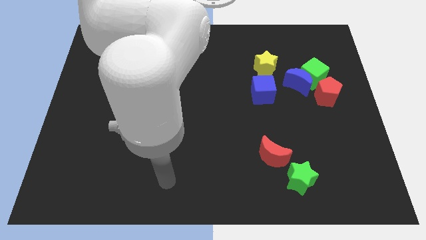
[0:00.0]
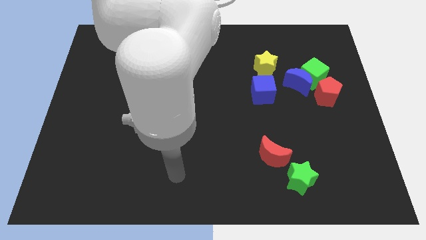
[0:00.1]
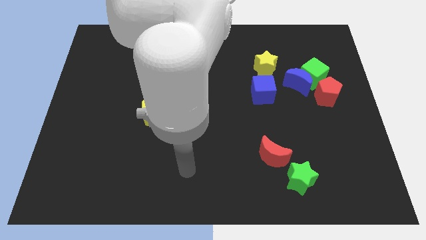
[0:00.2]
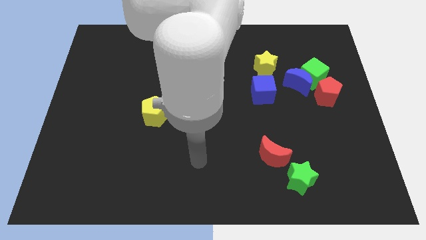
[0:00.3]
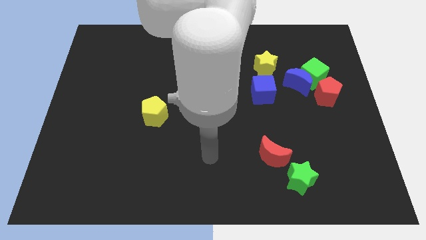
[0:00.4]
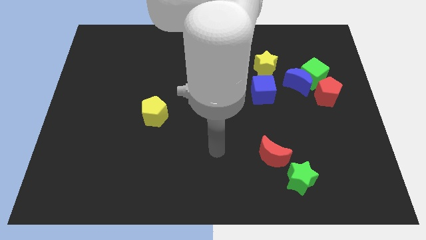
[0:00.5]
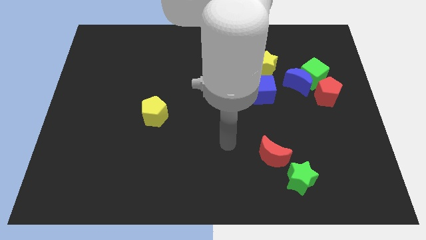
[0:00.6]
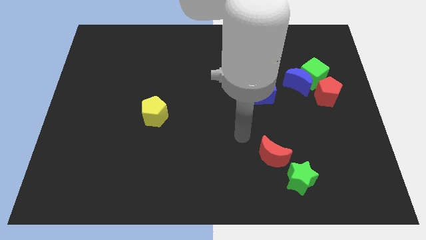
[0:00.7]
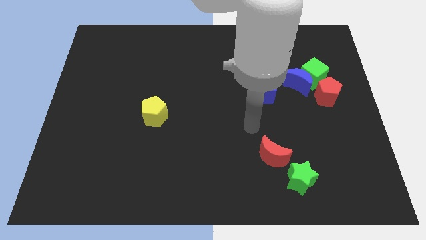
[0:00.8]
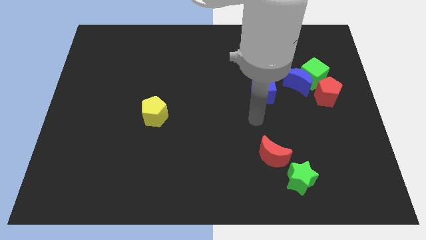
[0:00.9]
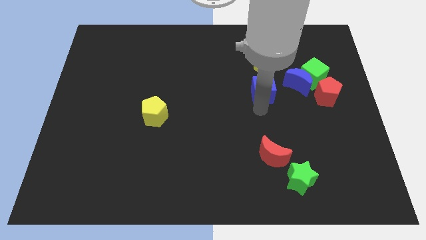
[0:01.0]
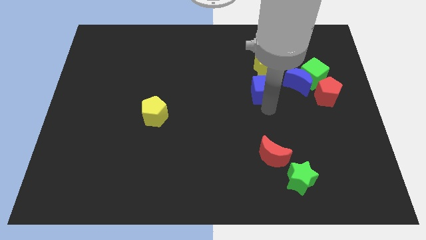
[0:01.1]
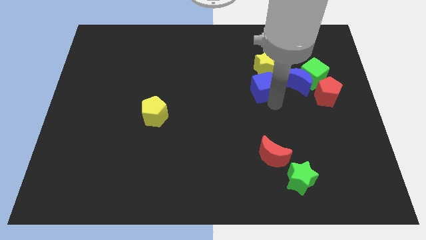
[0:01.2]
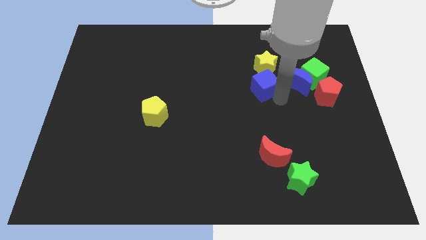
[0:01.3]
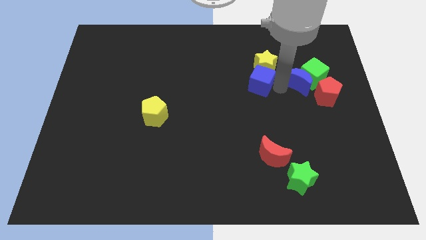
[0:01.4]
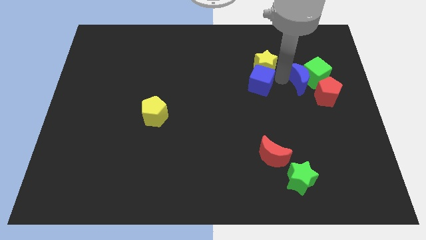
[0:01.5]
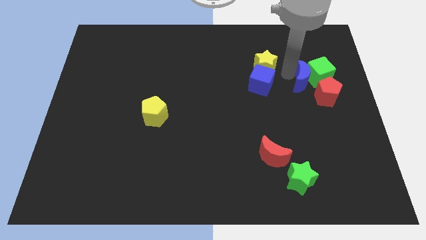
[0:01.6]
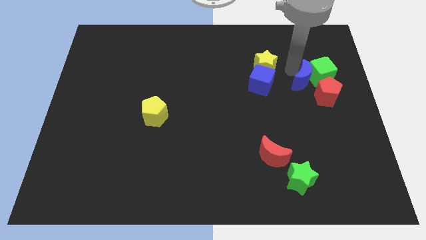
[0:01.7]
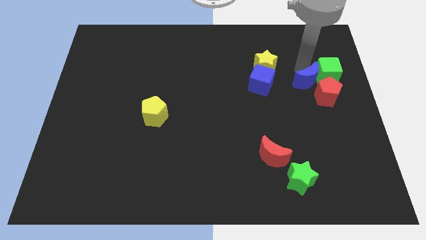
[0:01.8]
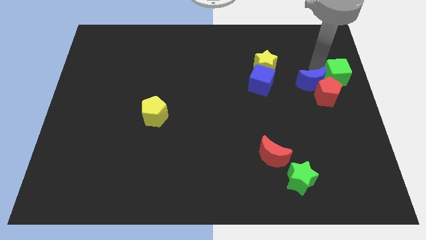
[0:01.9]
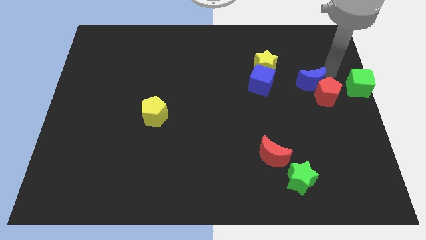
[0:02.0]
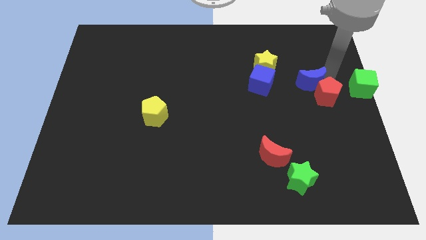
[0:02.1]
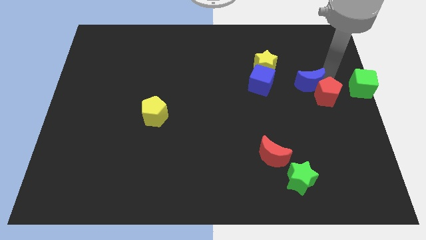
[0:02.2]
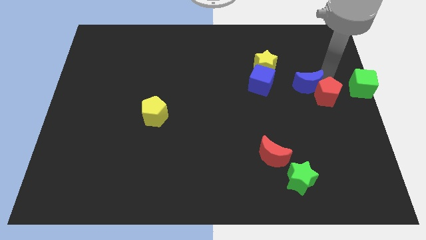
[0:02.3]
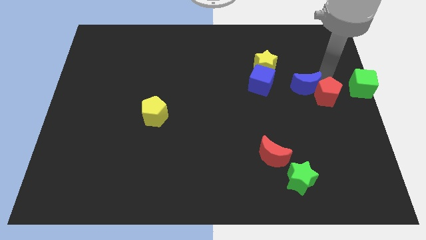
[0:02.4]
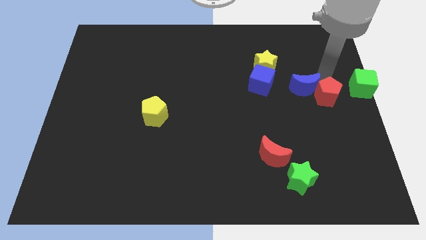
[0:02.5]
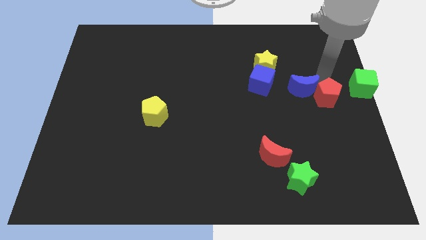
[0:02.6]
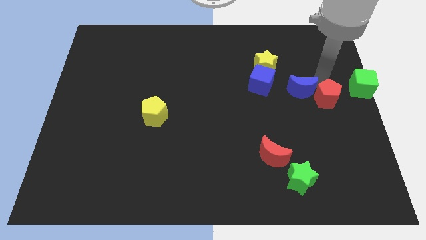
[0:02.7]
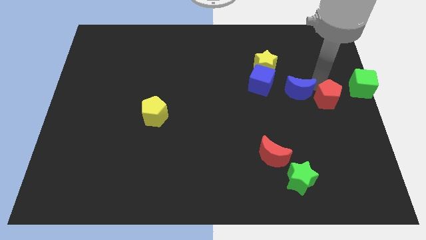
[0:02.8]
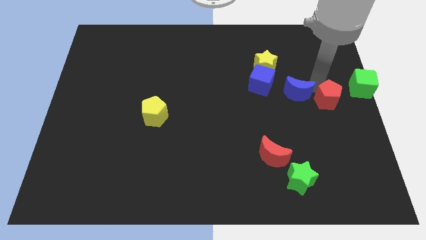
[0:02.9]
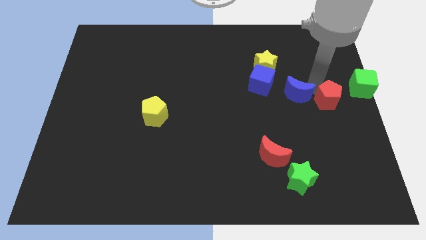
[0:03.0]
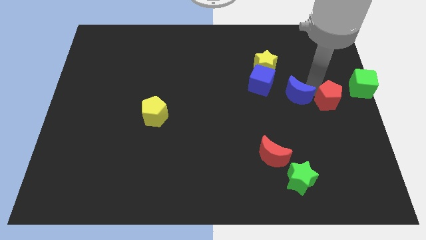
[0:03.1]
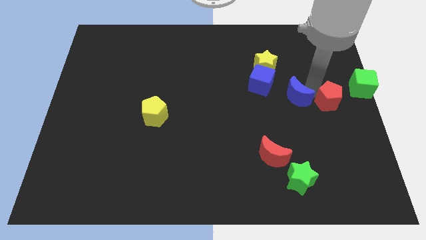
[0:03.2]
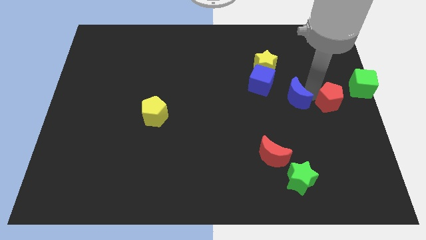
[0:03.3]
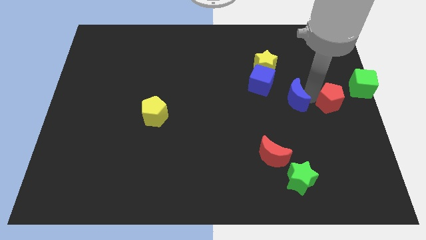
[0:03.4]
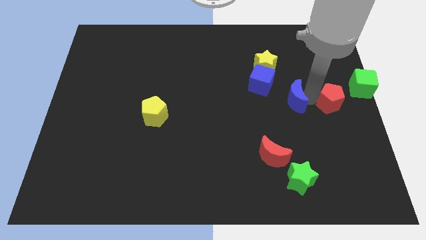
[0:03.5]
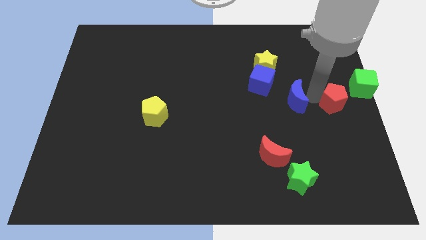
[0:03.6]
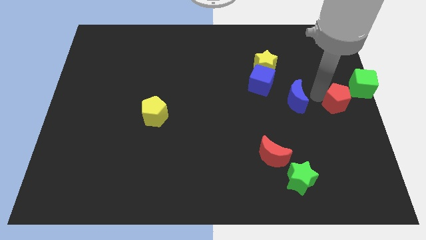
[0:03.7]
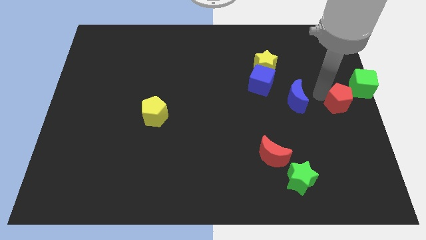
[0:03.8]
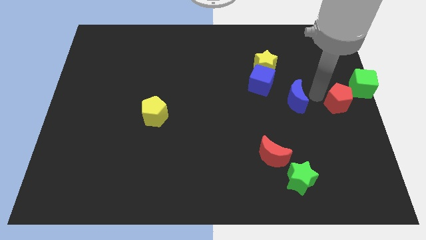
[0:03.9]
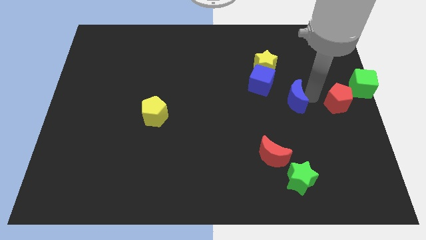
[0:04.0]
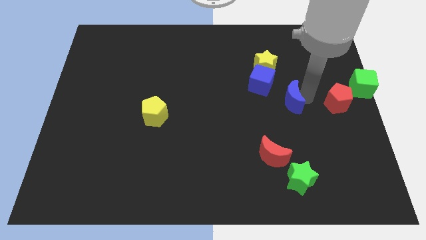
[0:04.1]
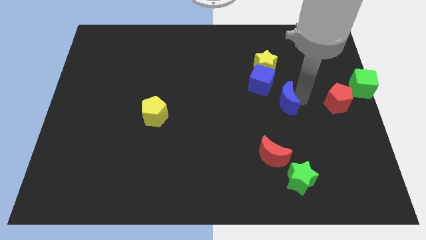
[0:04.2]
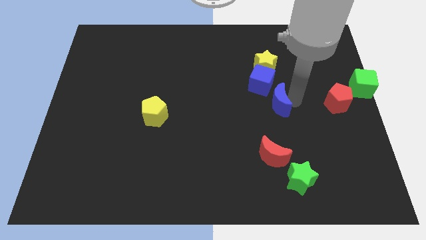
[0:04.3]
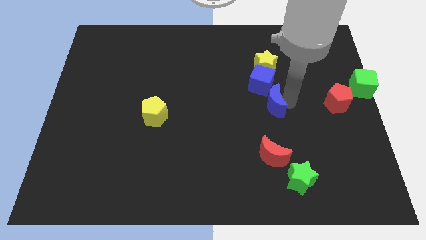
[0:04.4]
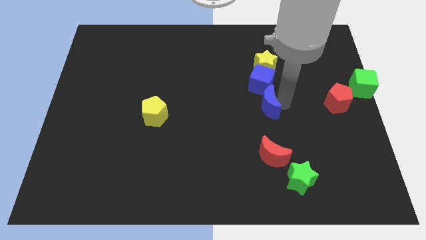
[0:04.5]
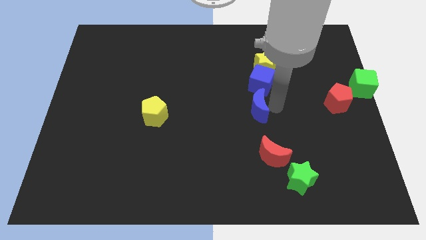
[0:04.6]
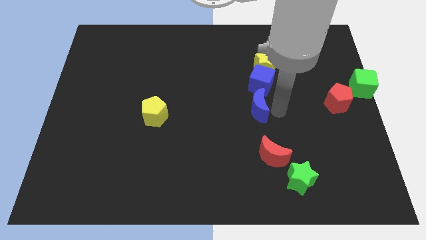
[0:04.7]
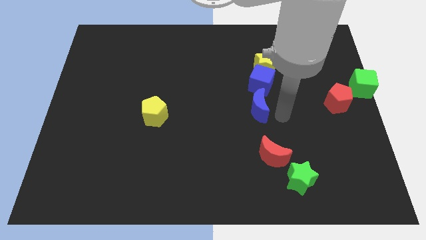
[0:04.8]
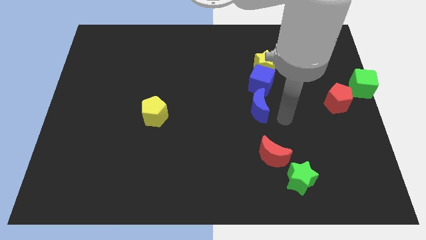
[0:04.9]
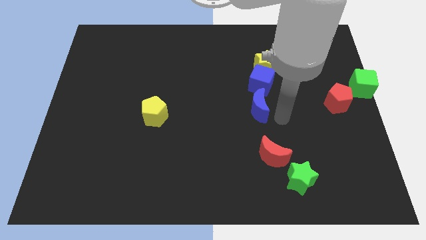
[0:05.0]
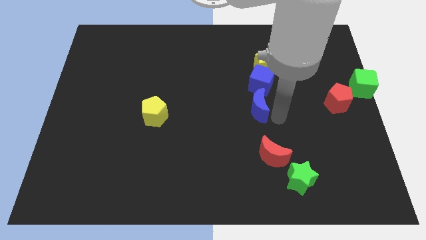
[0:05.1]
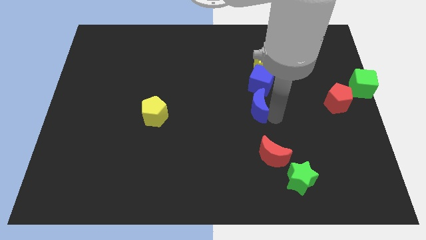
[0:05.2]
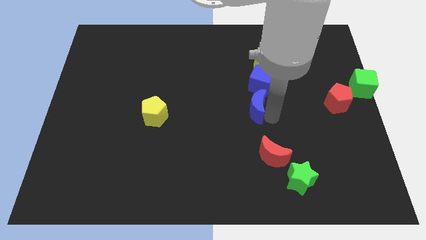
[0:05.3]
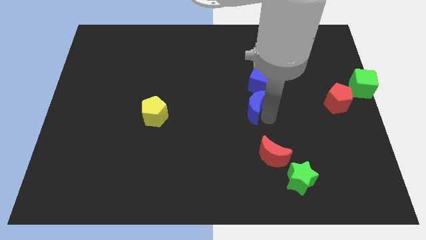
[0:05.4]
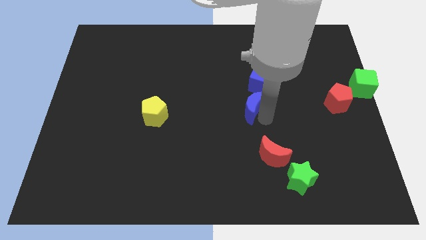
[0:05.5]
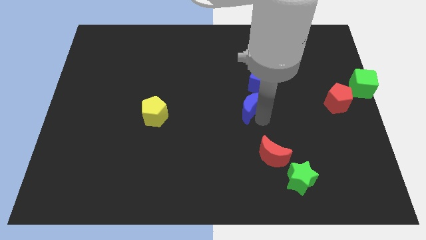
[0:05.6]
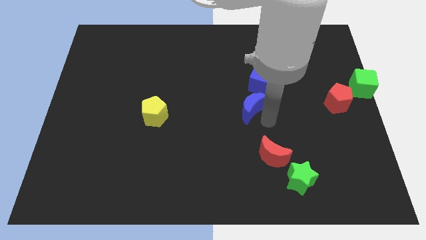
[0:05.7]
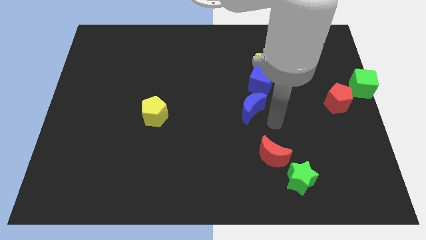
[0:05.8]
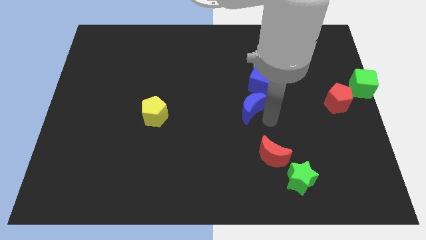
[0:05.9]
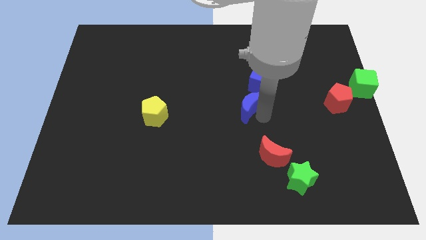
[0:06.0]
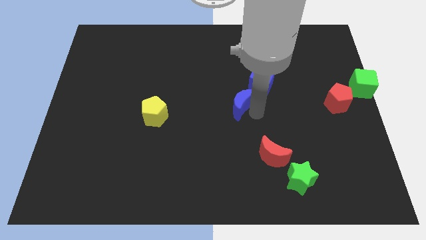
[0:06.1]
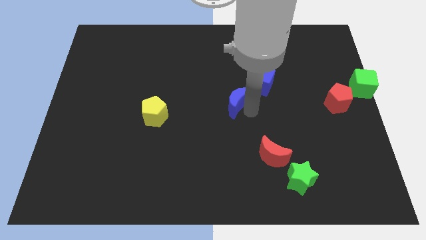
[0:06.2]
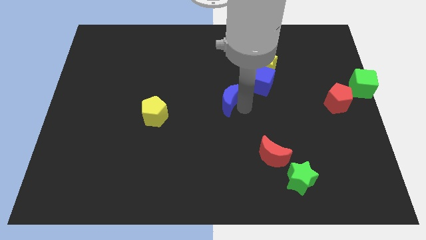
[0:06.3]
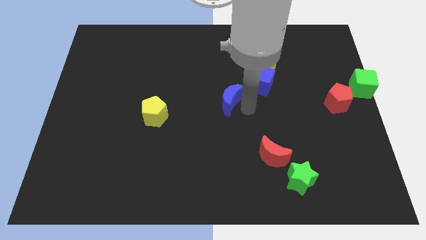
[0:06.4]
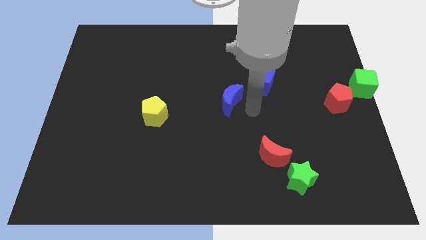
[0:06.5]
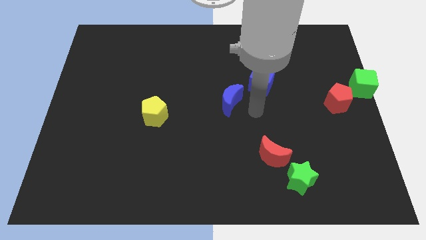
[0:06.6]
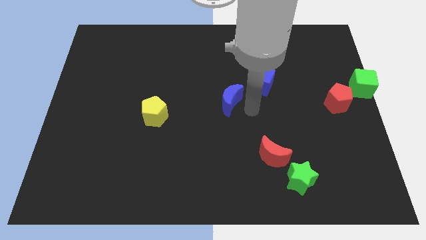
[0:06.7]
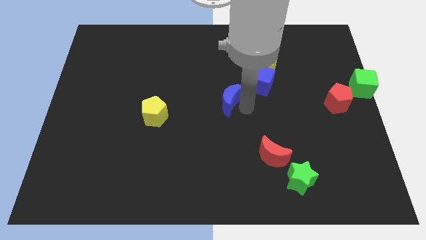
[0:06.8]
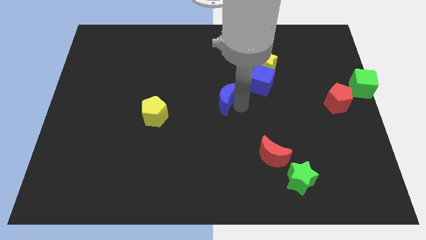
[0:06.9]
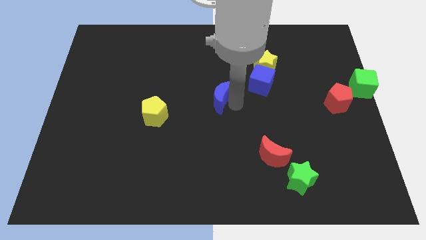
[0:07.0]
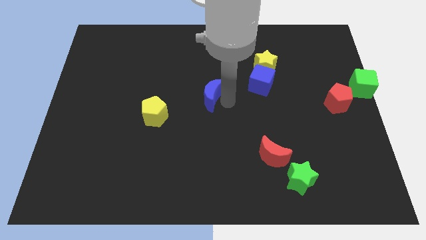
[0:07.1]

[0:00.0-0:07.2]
push the blue moon left

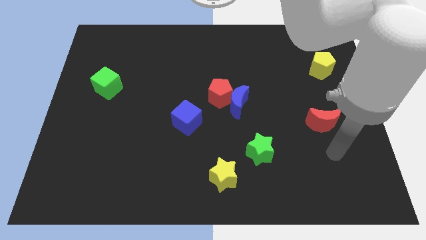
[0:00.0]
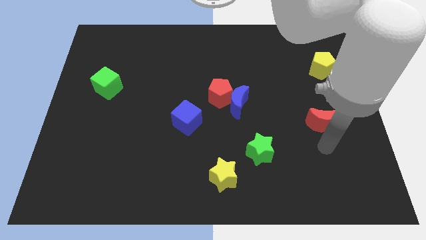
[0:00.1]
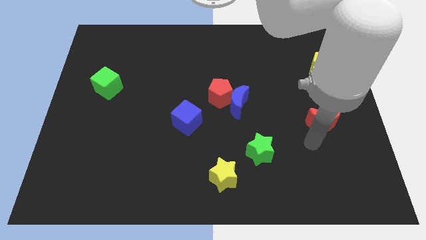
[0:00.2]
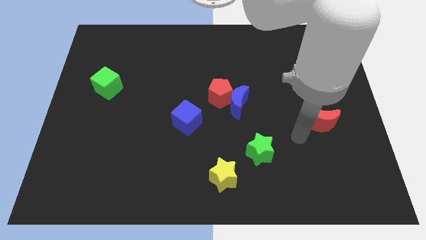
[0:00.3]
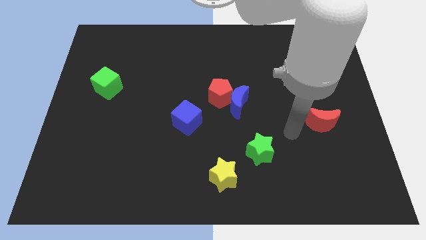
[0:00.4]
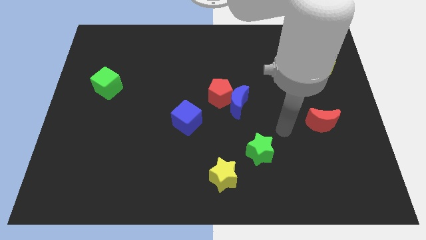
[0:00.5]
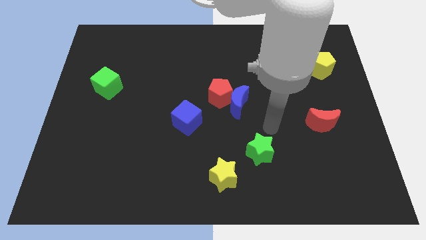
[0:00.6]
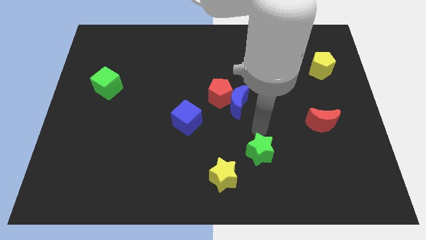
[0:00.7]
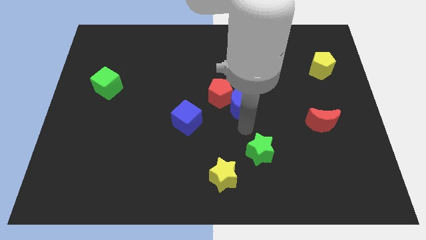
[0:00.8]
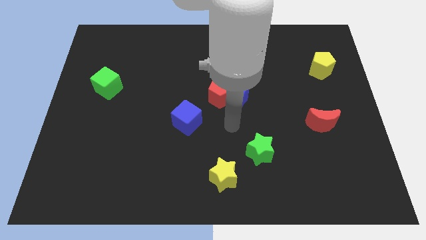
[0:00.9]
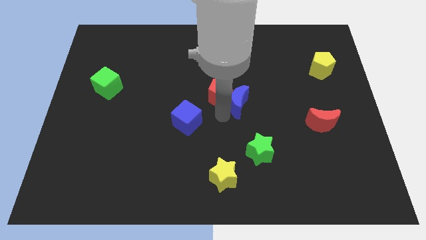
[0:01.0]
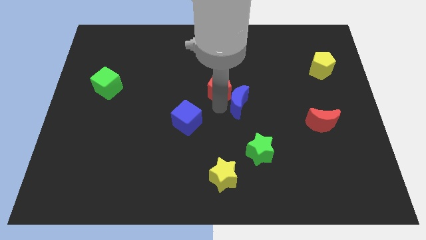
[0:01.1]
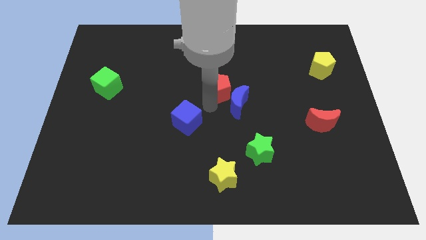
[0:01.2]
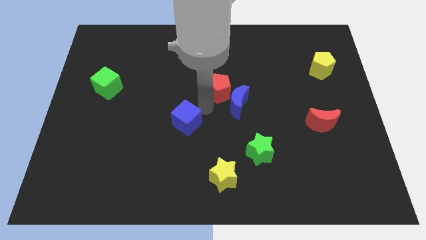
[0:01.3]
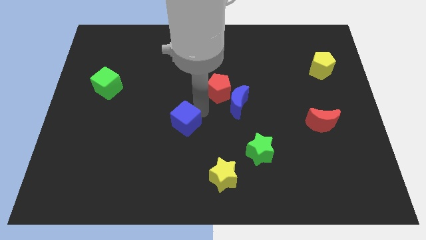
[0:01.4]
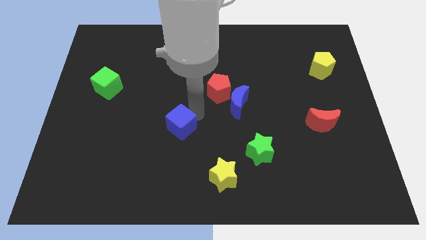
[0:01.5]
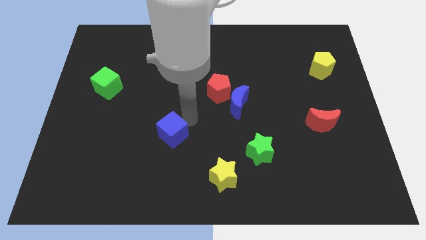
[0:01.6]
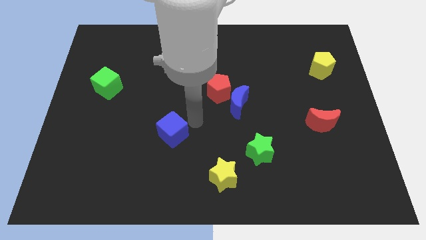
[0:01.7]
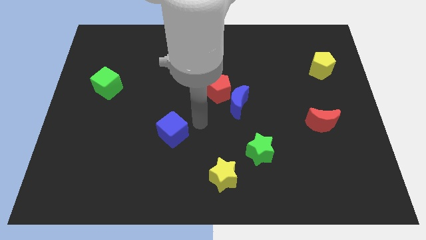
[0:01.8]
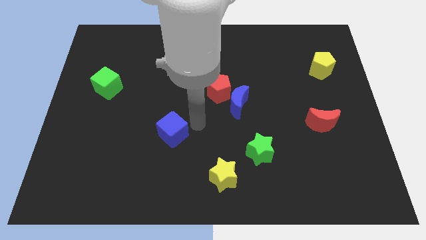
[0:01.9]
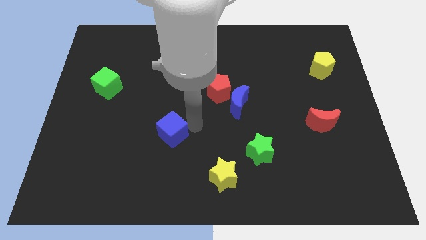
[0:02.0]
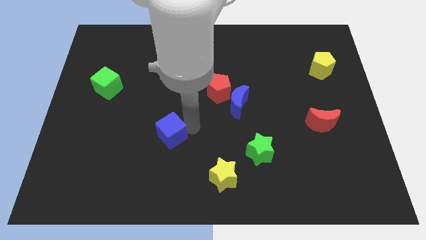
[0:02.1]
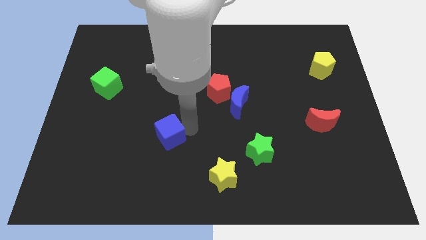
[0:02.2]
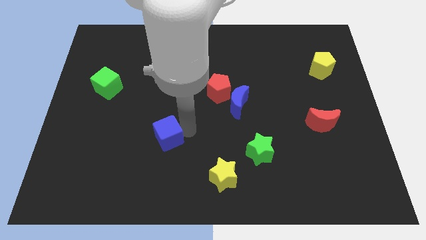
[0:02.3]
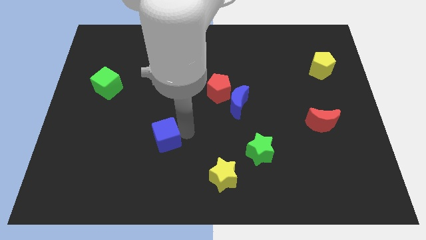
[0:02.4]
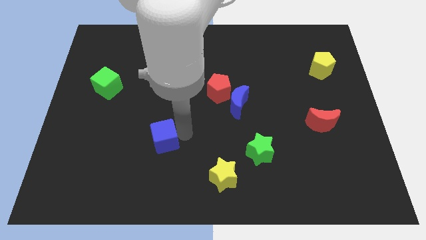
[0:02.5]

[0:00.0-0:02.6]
slightly slide the blue cube down and then left
